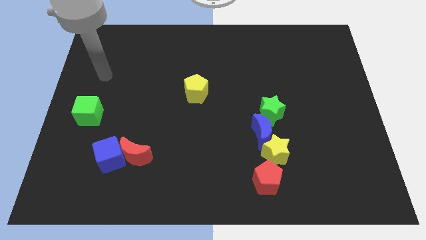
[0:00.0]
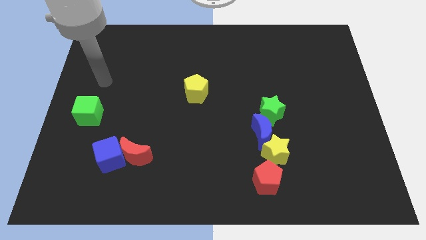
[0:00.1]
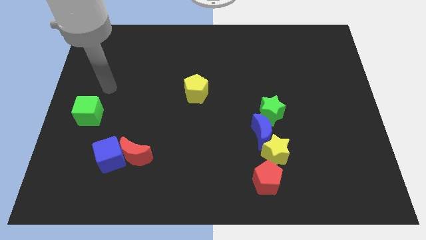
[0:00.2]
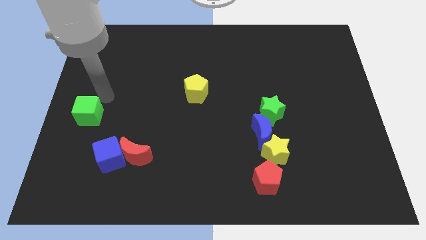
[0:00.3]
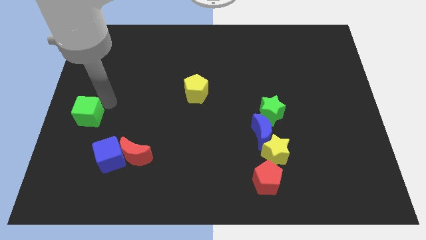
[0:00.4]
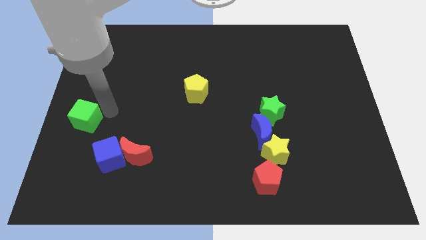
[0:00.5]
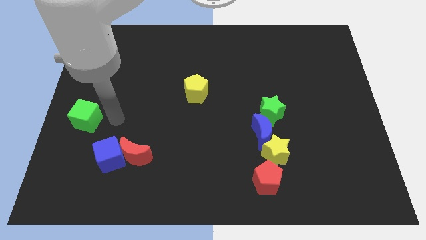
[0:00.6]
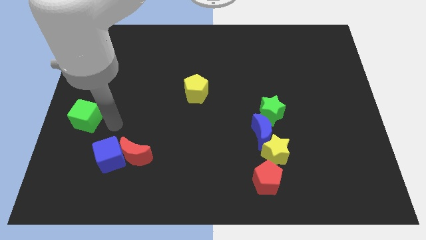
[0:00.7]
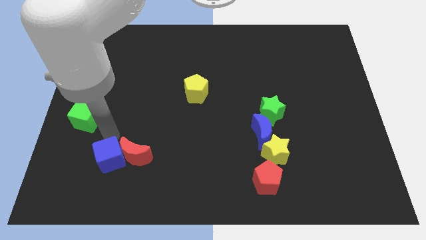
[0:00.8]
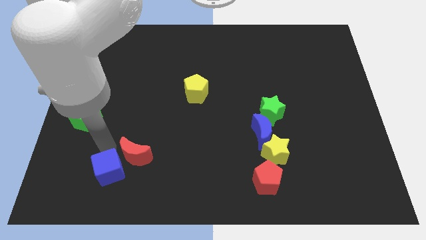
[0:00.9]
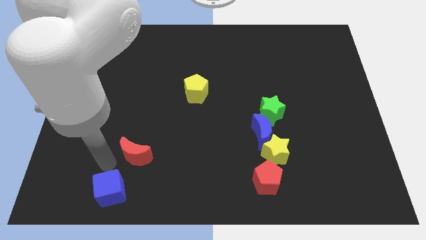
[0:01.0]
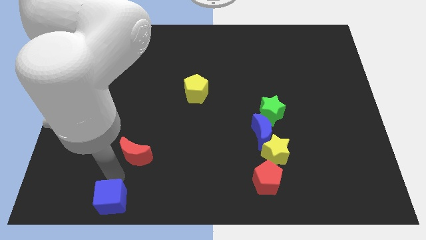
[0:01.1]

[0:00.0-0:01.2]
separate the red moon from the blue cube

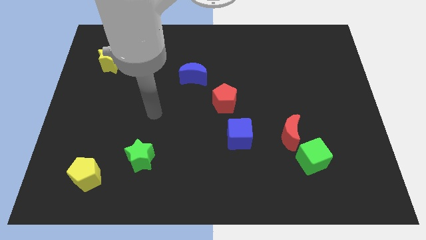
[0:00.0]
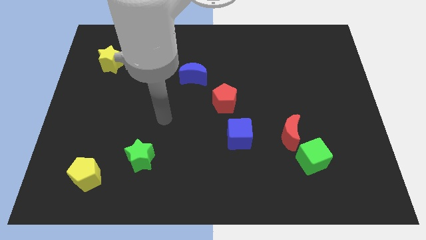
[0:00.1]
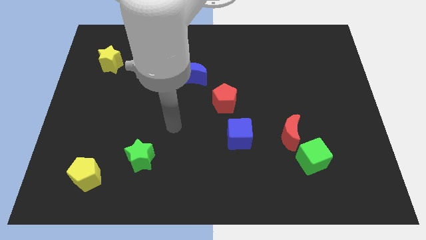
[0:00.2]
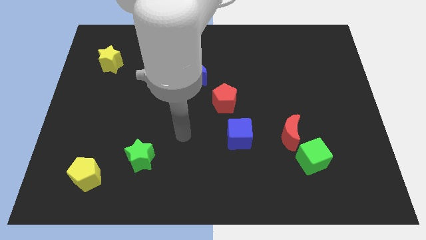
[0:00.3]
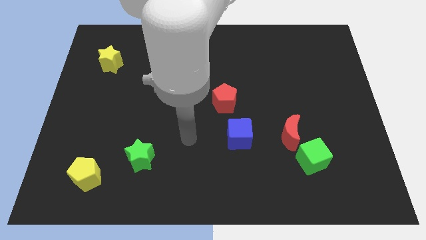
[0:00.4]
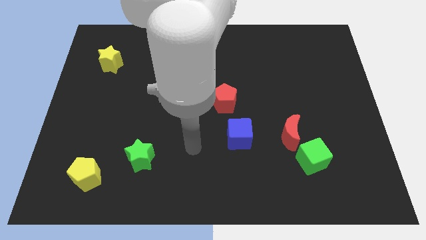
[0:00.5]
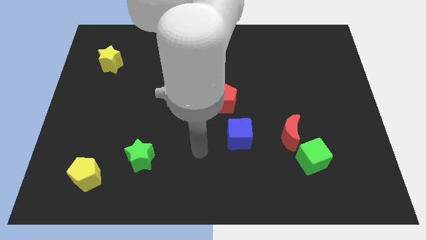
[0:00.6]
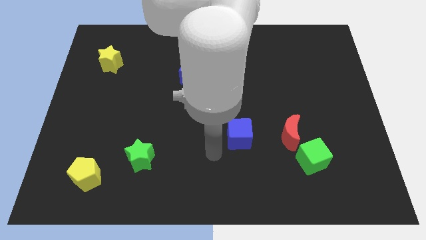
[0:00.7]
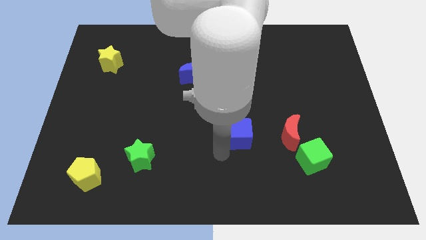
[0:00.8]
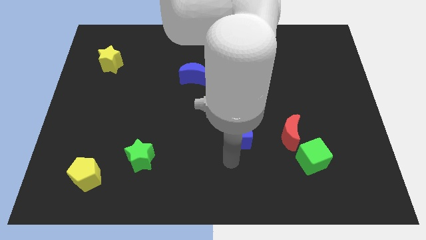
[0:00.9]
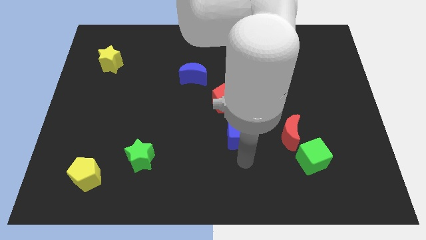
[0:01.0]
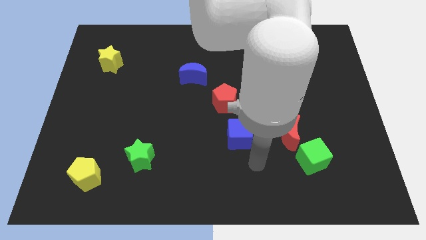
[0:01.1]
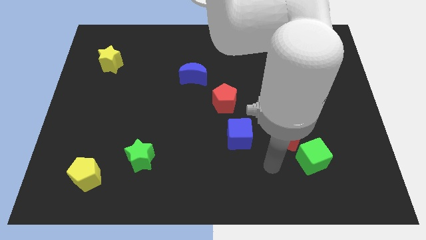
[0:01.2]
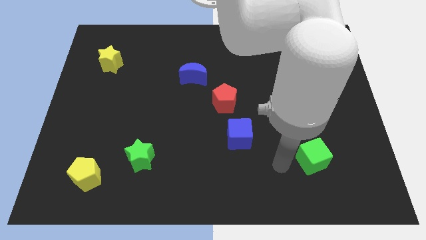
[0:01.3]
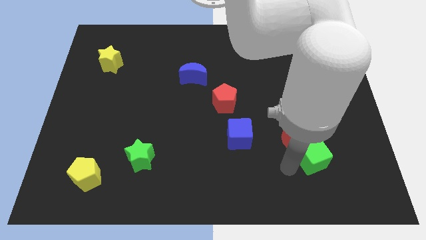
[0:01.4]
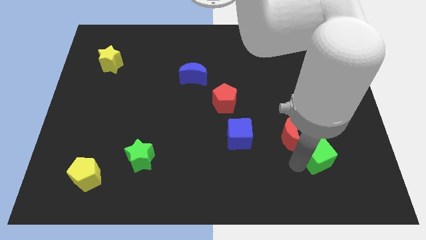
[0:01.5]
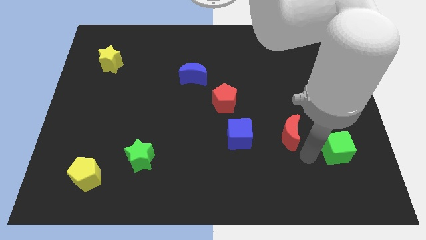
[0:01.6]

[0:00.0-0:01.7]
separate the red moon from the green cube

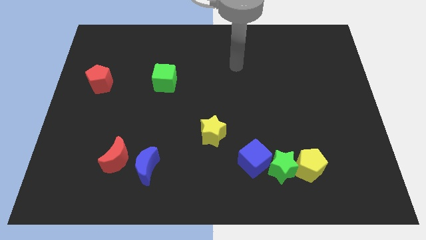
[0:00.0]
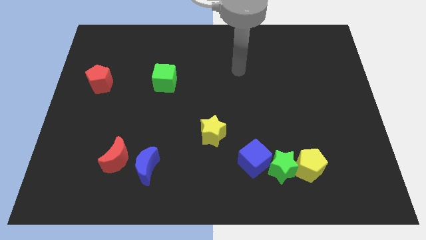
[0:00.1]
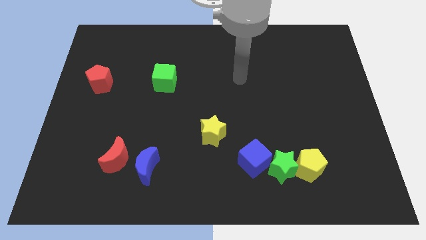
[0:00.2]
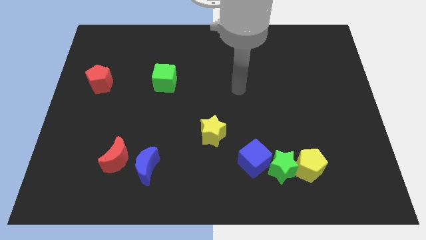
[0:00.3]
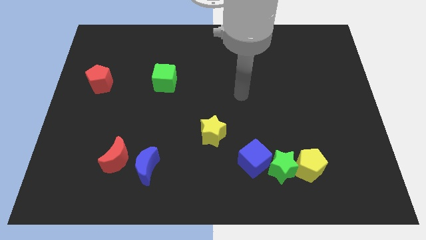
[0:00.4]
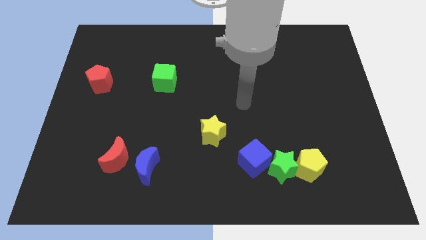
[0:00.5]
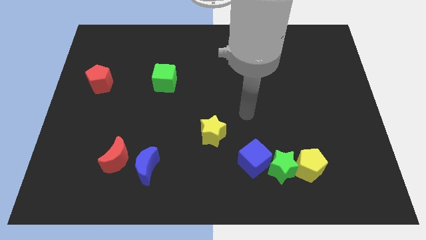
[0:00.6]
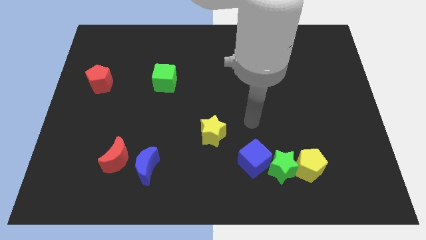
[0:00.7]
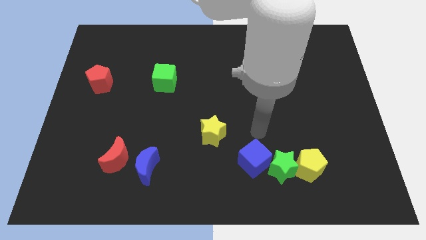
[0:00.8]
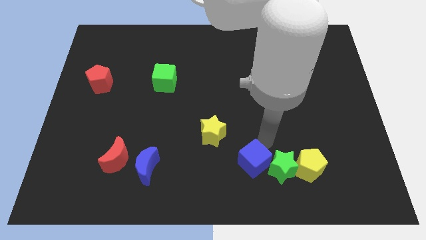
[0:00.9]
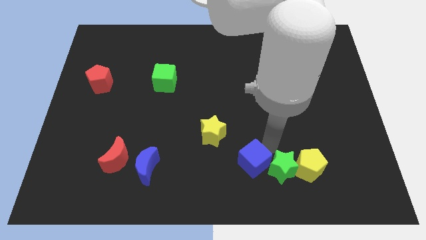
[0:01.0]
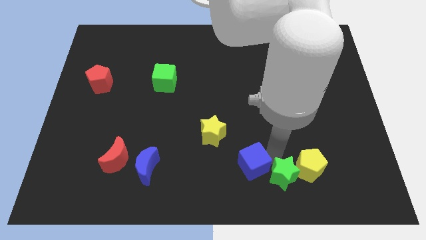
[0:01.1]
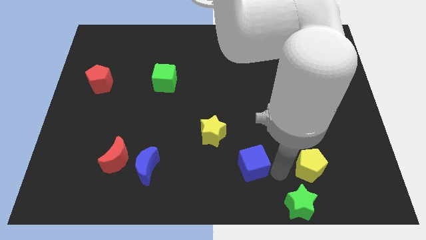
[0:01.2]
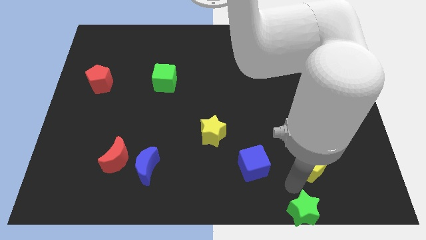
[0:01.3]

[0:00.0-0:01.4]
pull the yellow pentagon apart from the green star

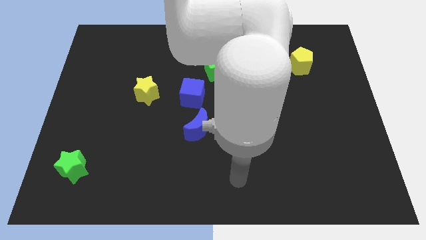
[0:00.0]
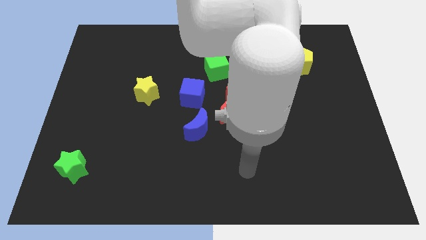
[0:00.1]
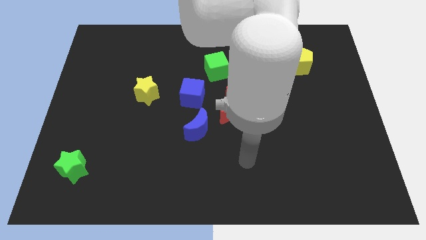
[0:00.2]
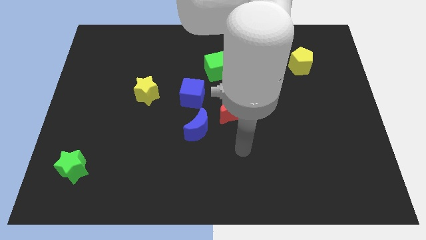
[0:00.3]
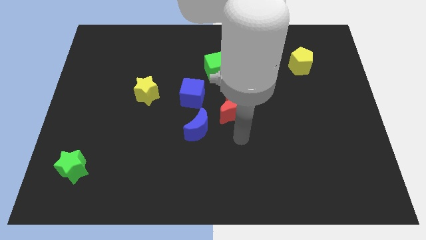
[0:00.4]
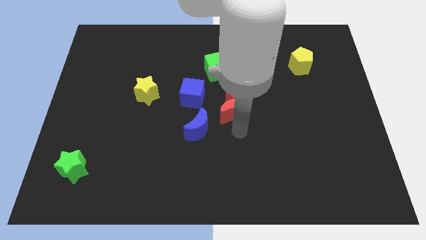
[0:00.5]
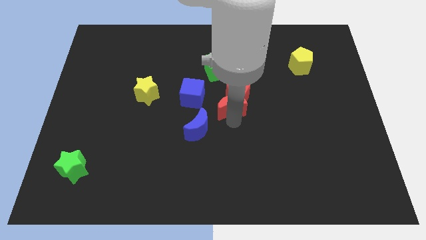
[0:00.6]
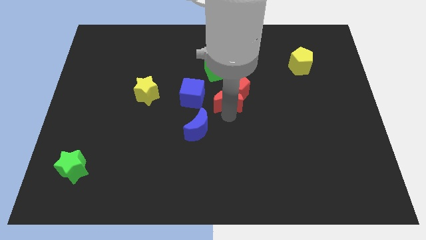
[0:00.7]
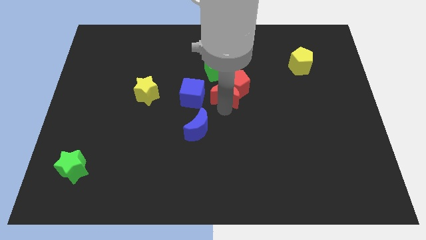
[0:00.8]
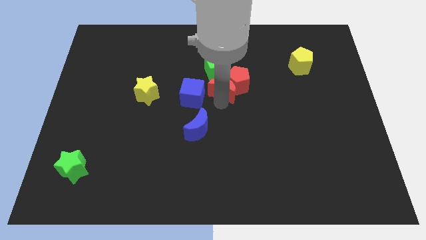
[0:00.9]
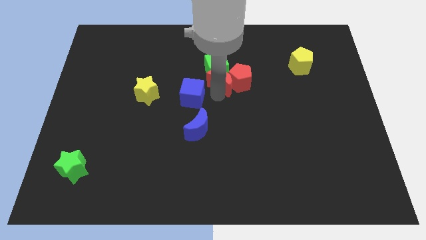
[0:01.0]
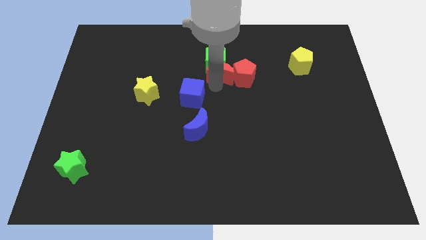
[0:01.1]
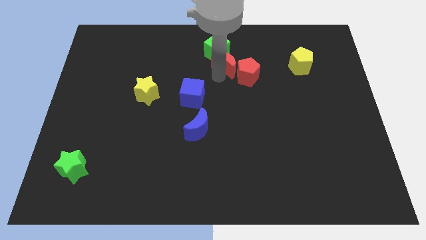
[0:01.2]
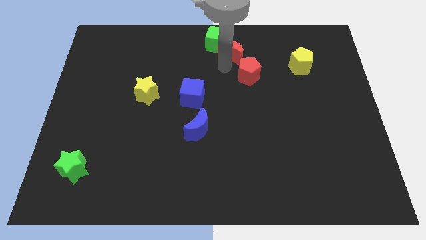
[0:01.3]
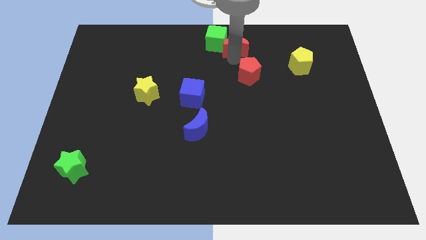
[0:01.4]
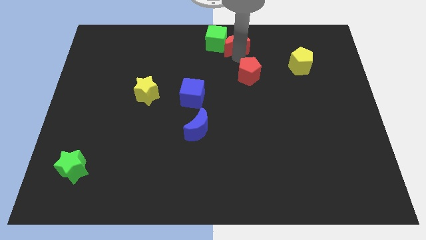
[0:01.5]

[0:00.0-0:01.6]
move the red pentagon away from the red moon

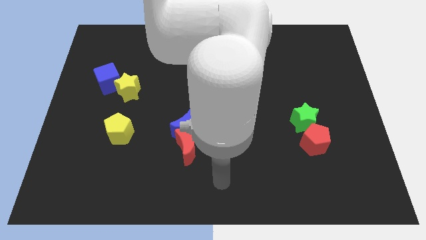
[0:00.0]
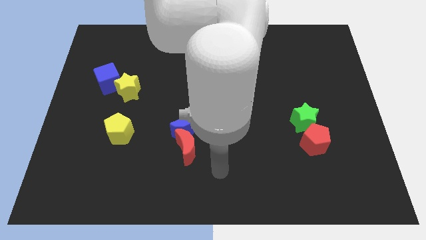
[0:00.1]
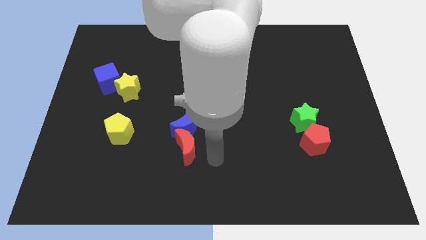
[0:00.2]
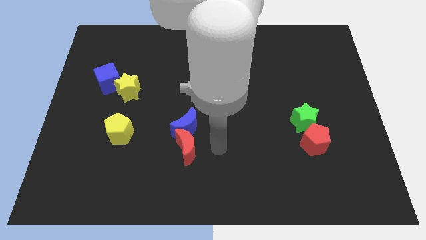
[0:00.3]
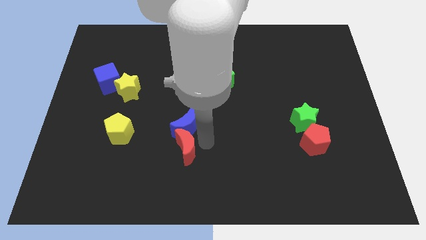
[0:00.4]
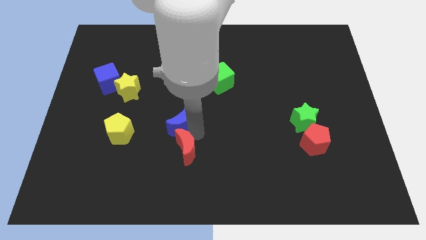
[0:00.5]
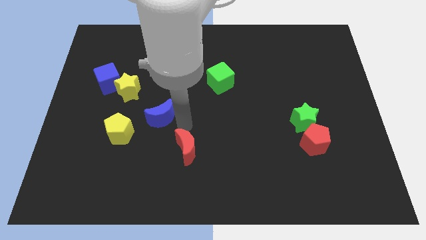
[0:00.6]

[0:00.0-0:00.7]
move the red moon away from the blue moon

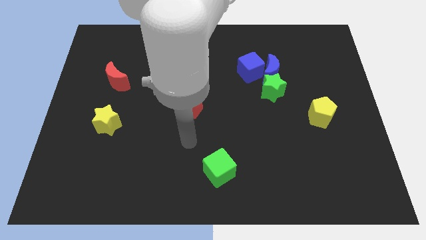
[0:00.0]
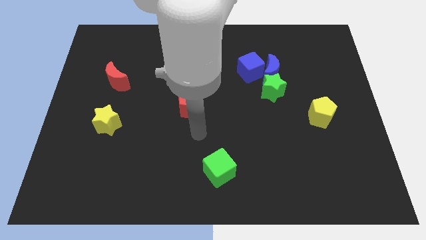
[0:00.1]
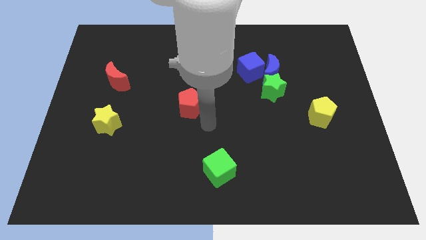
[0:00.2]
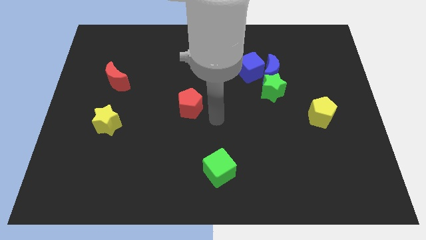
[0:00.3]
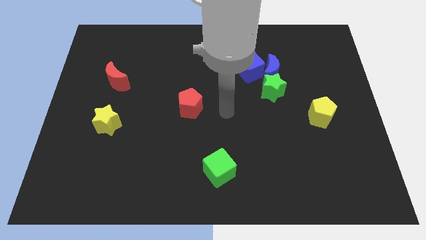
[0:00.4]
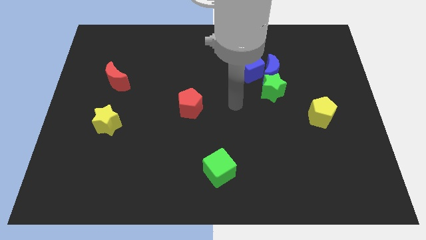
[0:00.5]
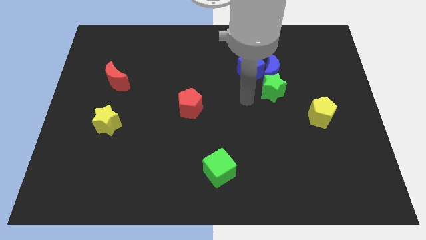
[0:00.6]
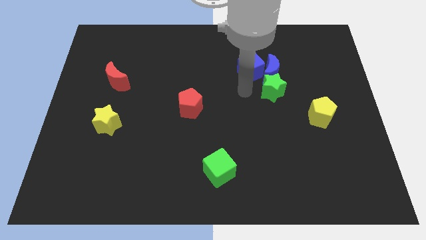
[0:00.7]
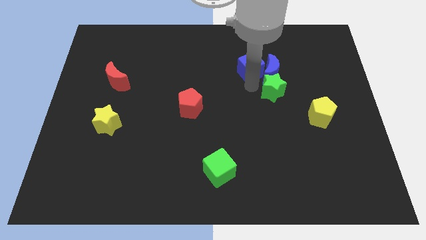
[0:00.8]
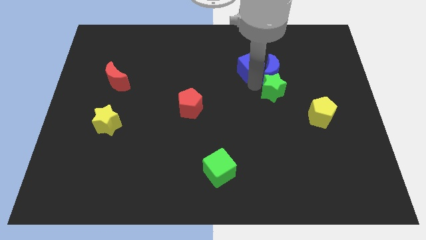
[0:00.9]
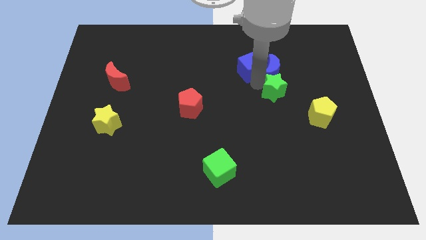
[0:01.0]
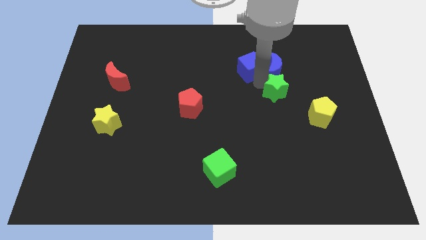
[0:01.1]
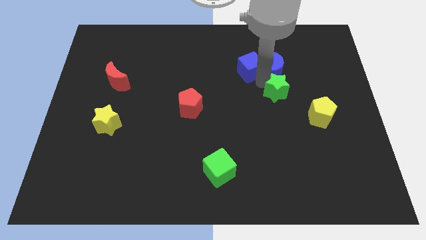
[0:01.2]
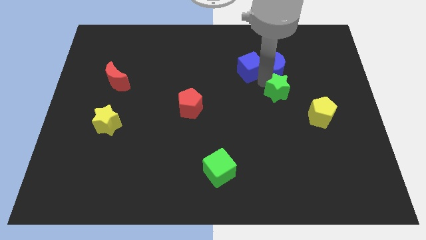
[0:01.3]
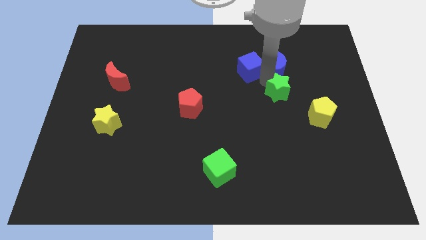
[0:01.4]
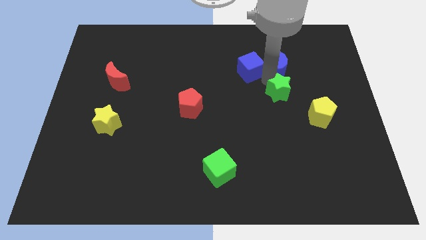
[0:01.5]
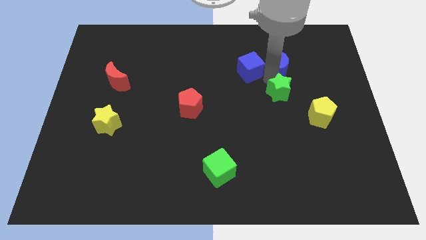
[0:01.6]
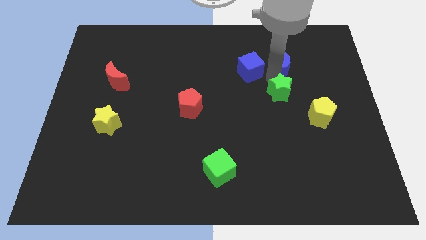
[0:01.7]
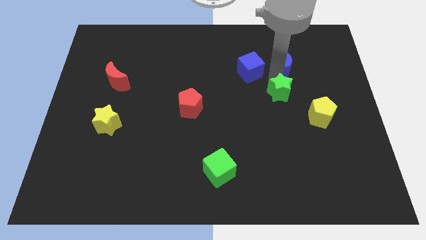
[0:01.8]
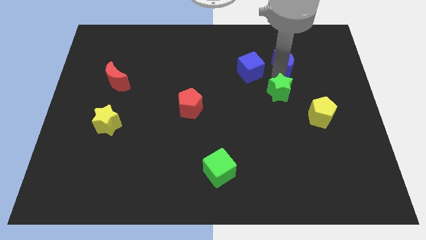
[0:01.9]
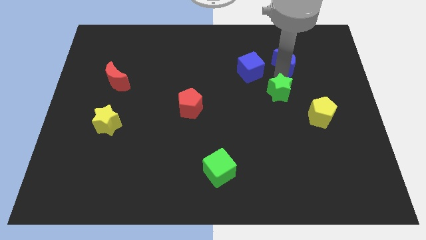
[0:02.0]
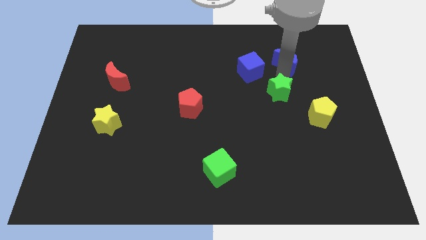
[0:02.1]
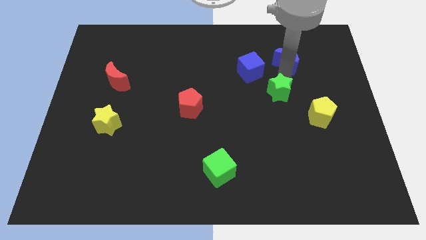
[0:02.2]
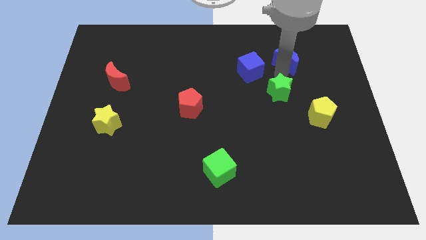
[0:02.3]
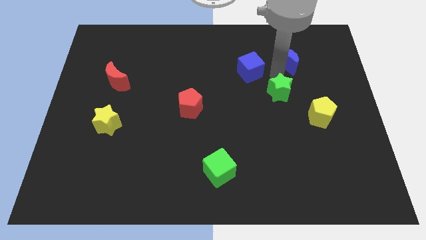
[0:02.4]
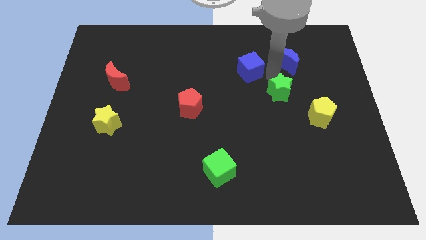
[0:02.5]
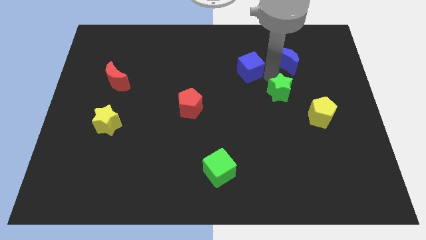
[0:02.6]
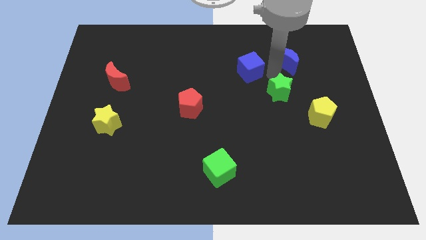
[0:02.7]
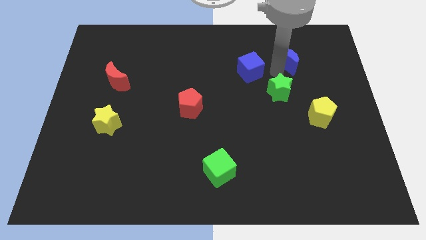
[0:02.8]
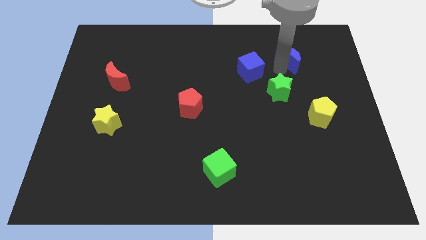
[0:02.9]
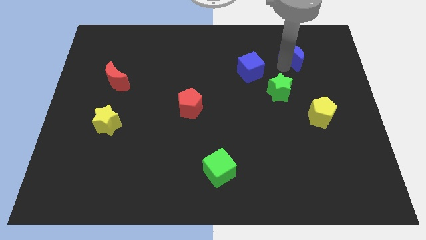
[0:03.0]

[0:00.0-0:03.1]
move the blue moon away from the blue cube and green star
